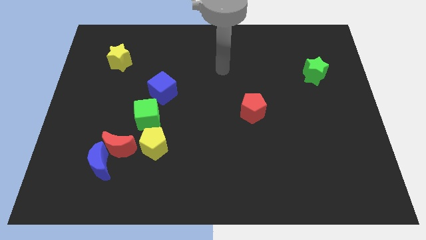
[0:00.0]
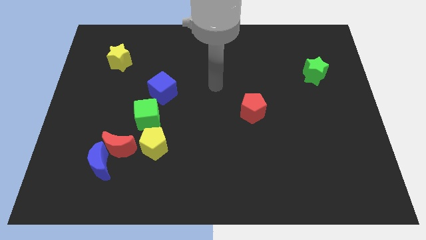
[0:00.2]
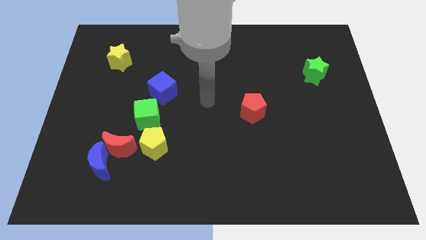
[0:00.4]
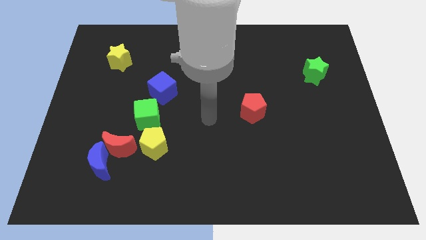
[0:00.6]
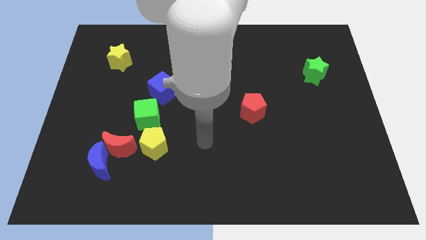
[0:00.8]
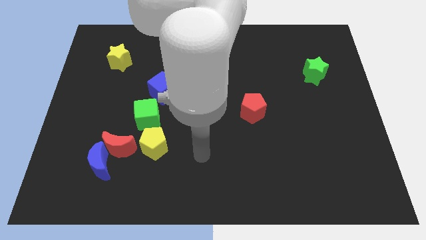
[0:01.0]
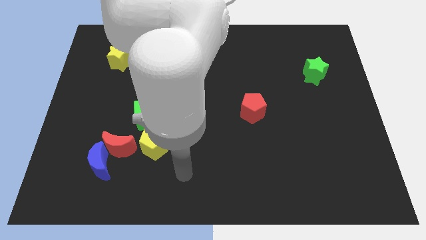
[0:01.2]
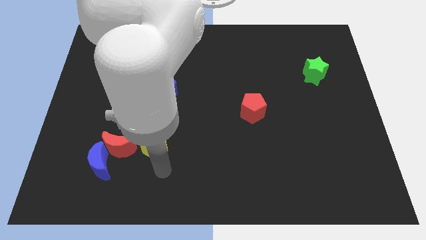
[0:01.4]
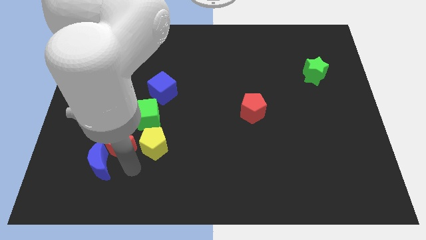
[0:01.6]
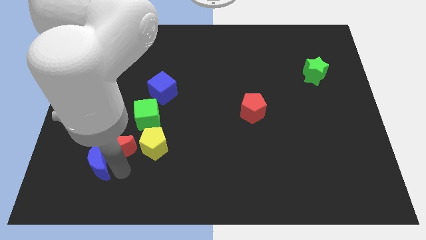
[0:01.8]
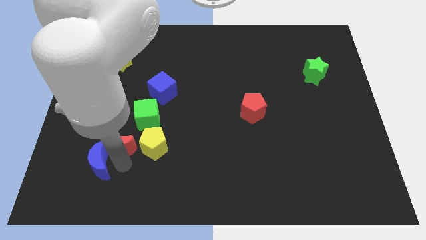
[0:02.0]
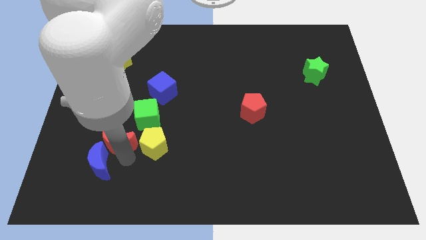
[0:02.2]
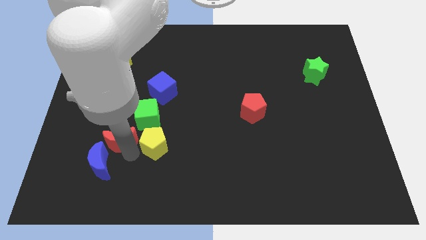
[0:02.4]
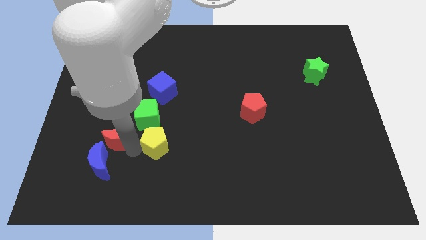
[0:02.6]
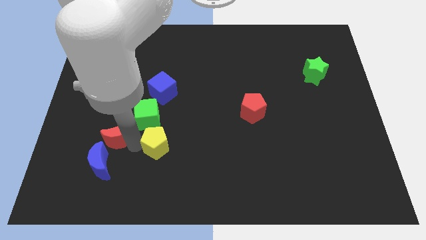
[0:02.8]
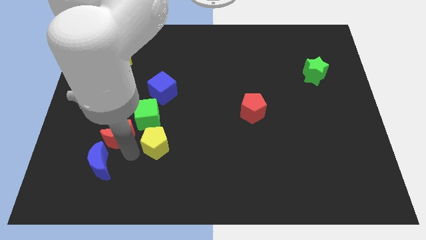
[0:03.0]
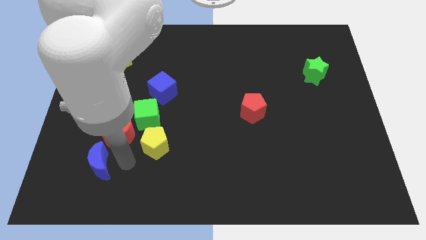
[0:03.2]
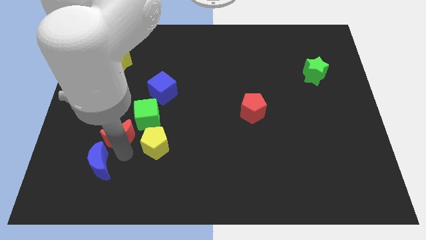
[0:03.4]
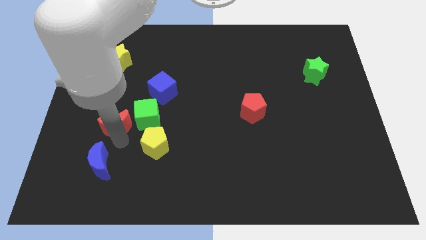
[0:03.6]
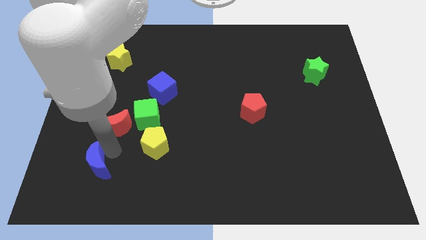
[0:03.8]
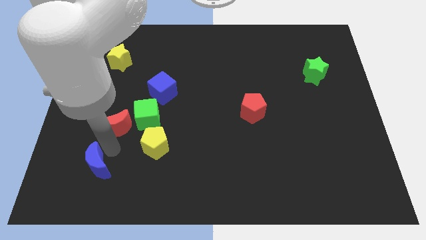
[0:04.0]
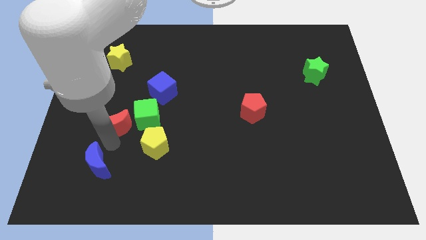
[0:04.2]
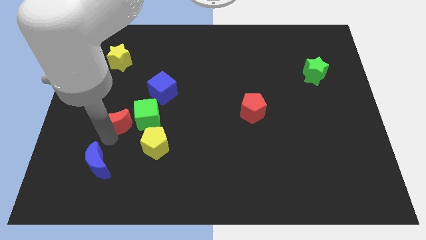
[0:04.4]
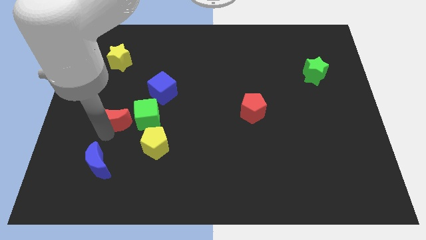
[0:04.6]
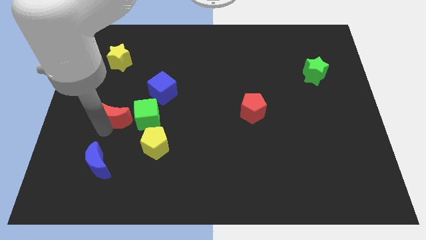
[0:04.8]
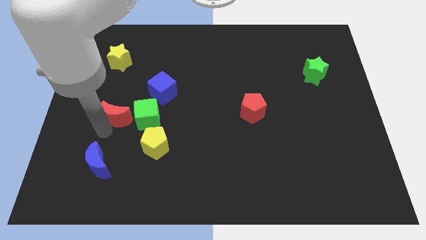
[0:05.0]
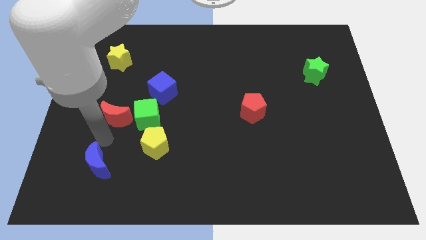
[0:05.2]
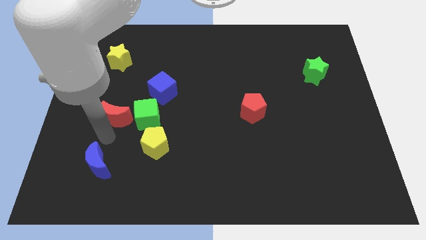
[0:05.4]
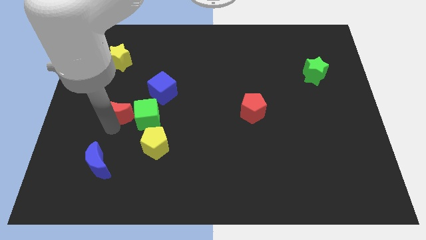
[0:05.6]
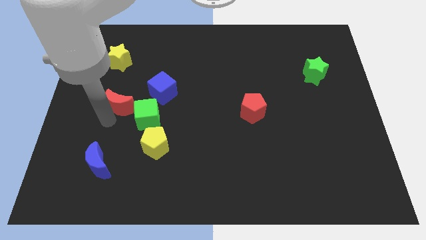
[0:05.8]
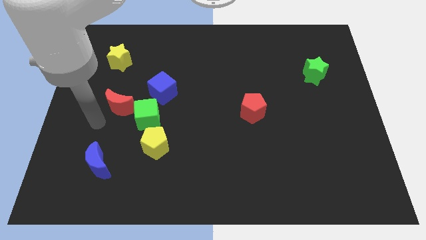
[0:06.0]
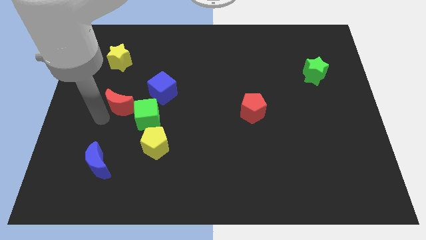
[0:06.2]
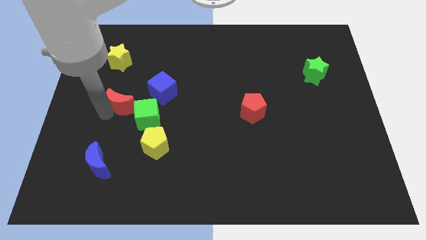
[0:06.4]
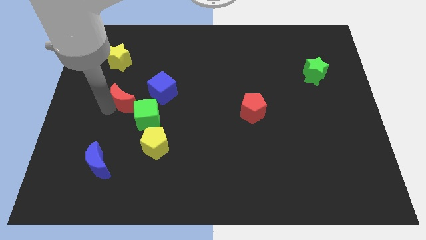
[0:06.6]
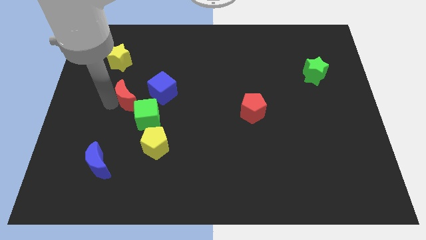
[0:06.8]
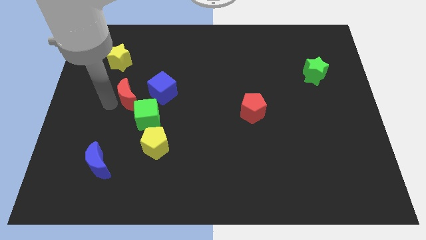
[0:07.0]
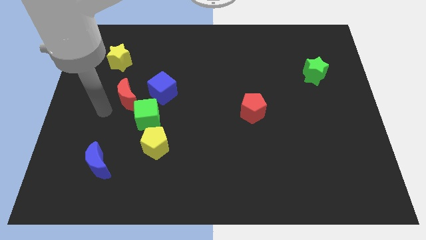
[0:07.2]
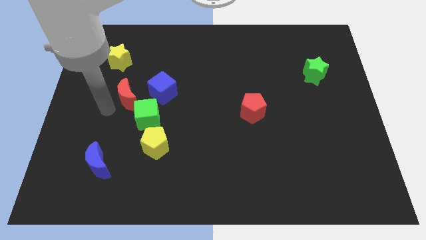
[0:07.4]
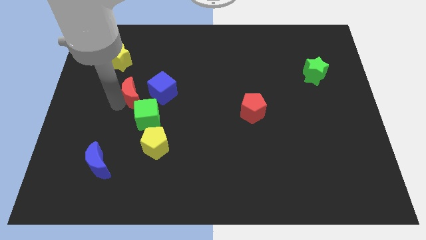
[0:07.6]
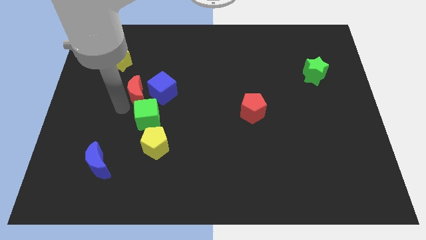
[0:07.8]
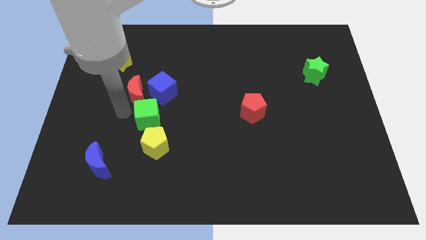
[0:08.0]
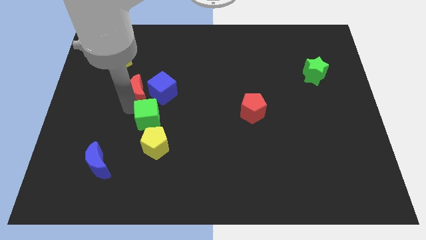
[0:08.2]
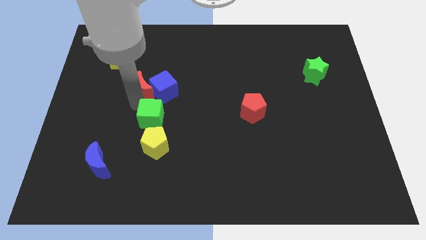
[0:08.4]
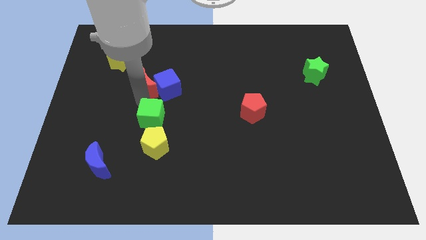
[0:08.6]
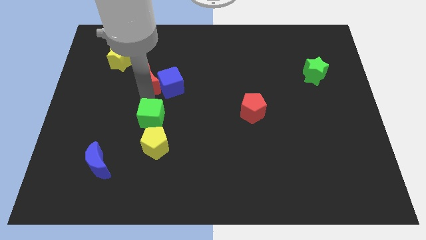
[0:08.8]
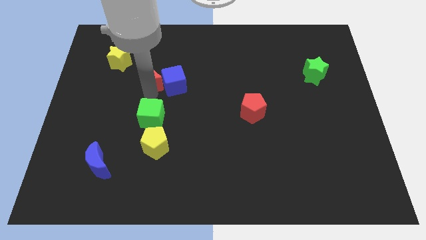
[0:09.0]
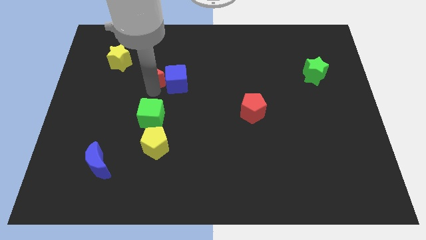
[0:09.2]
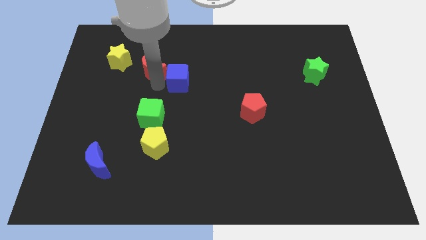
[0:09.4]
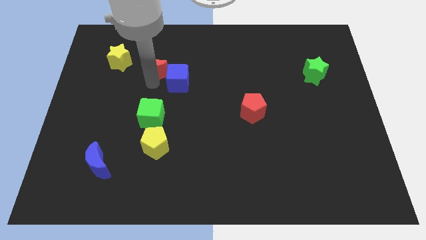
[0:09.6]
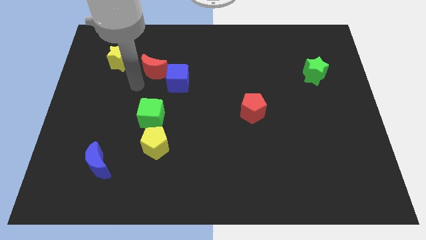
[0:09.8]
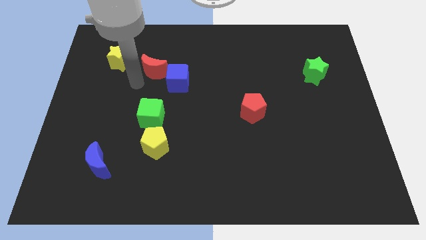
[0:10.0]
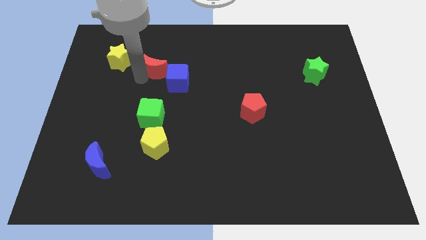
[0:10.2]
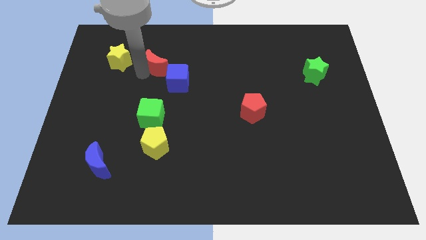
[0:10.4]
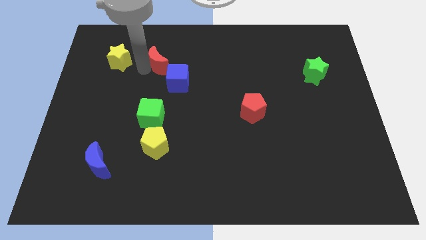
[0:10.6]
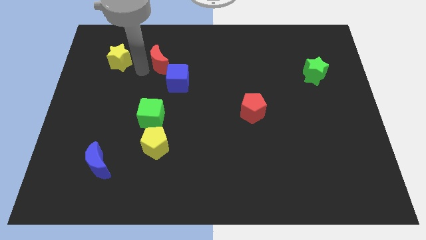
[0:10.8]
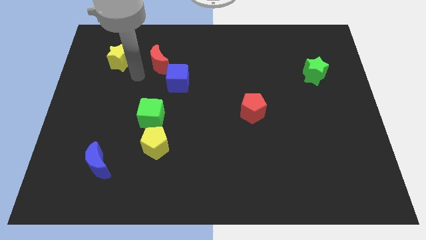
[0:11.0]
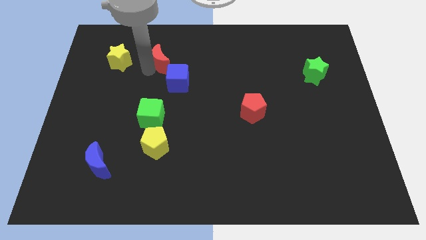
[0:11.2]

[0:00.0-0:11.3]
put the red moon to the top of the blue cube

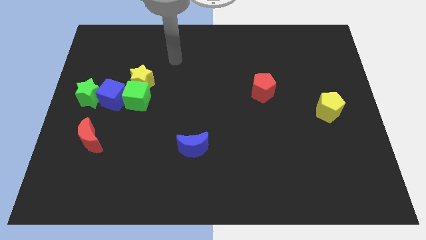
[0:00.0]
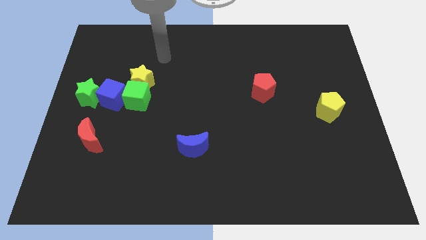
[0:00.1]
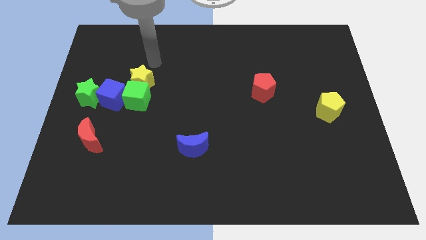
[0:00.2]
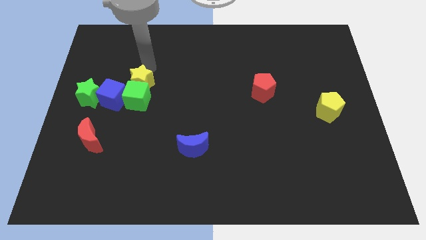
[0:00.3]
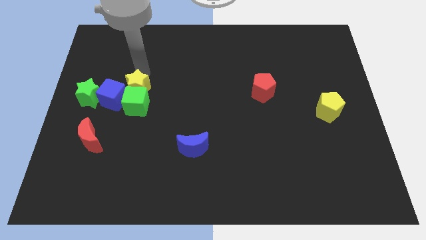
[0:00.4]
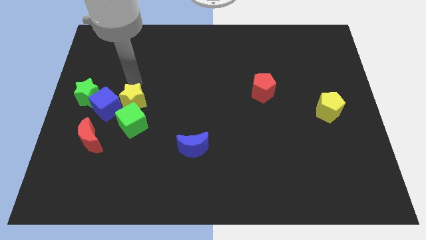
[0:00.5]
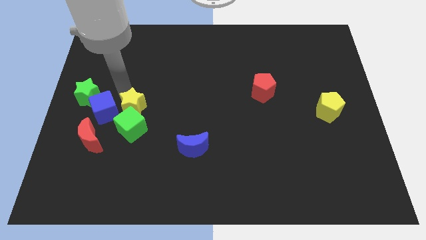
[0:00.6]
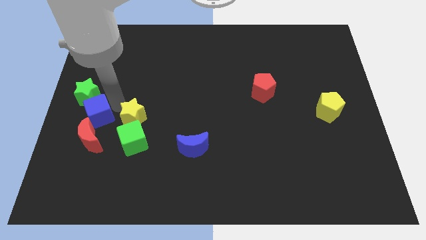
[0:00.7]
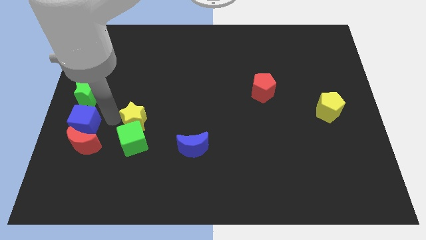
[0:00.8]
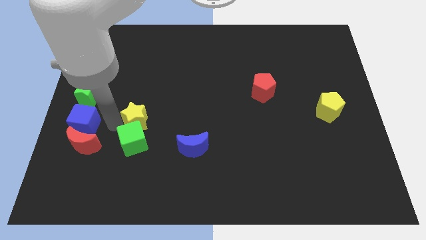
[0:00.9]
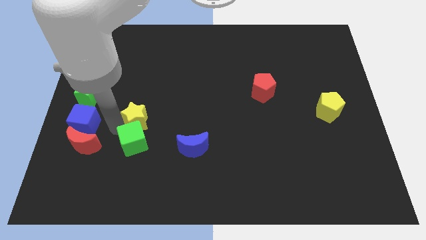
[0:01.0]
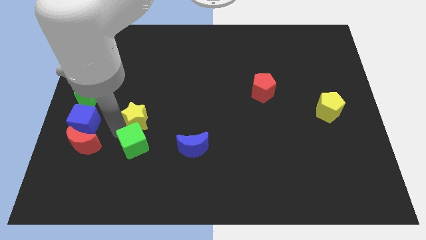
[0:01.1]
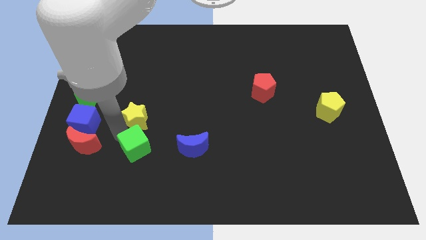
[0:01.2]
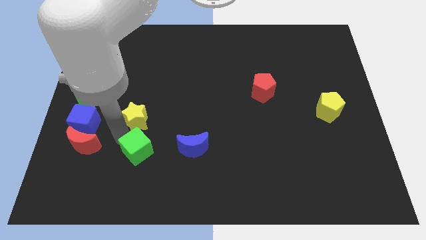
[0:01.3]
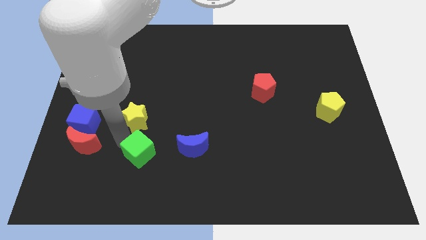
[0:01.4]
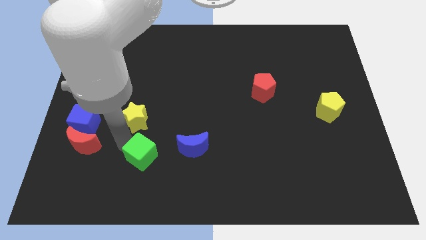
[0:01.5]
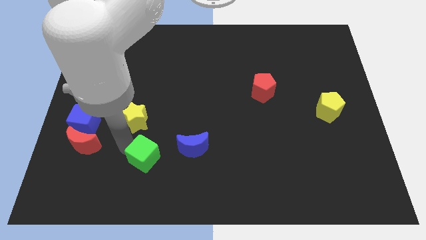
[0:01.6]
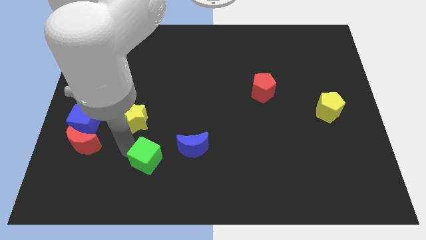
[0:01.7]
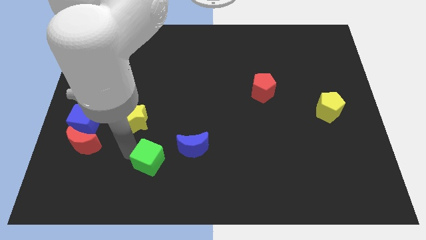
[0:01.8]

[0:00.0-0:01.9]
move the green cube diagonally down and to the left of the blue moon
